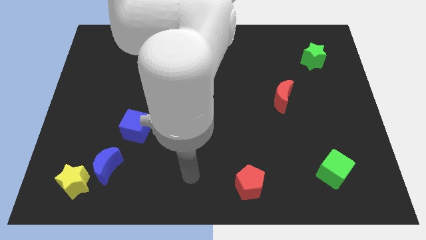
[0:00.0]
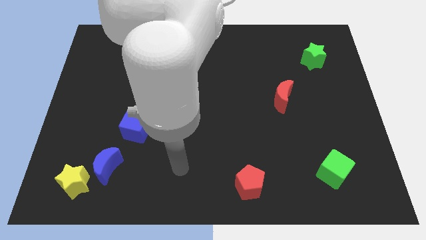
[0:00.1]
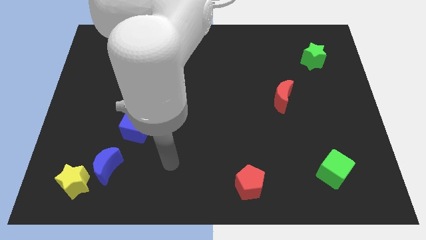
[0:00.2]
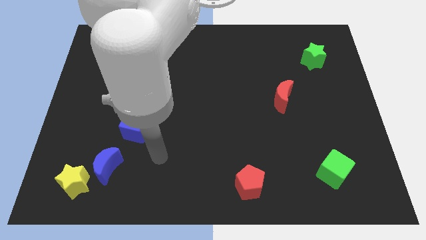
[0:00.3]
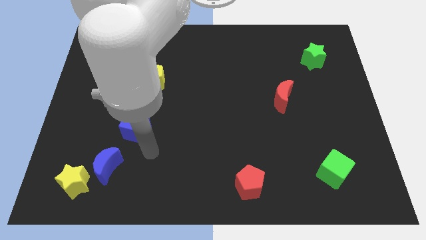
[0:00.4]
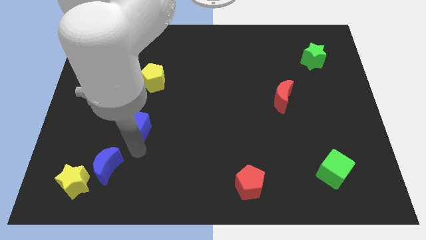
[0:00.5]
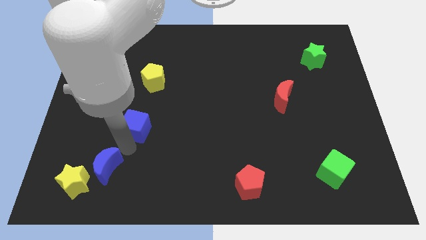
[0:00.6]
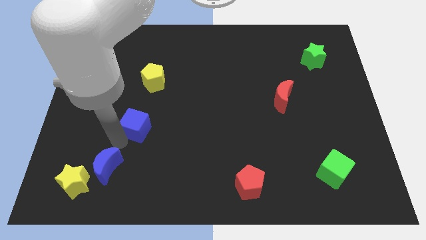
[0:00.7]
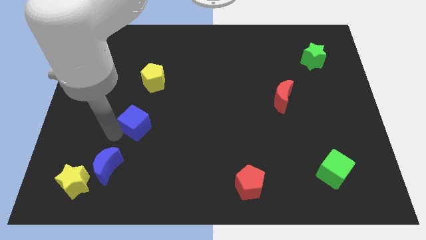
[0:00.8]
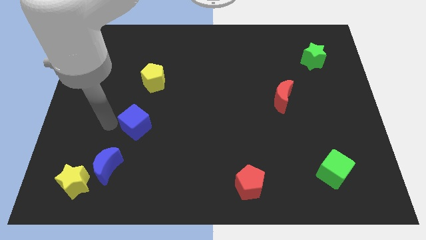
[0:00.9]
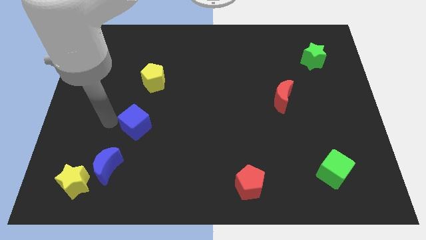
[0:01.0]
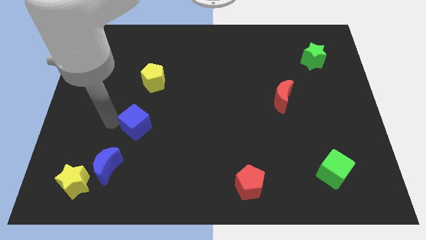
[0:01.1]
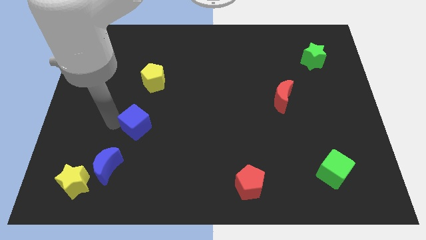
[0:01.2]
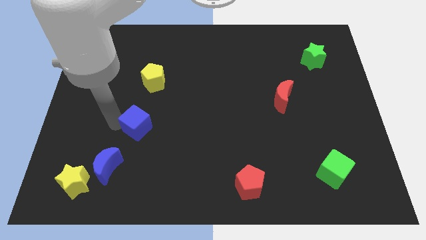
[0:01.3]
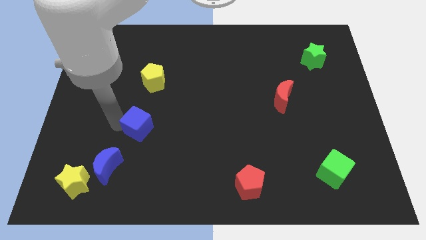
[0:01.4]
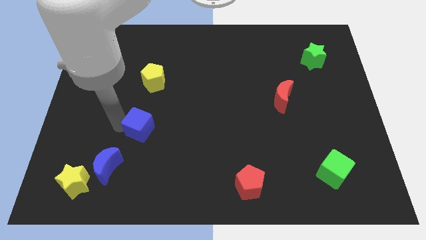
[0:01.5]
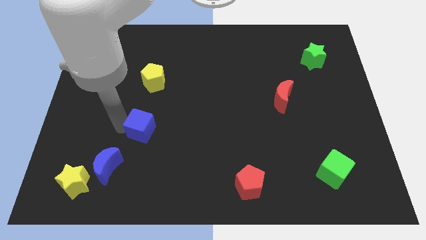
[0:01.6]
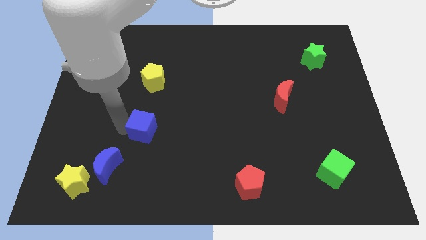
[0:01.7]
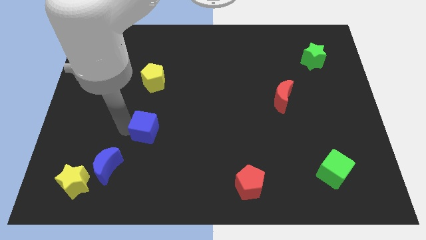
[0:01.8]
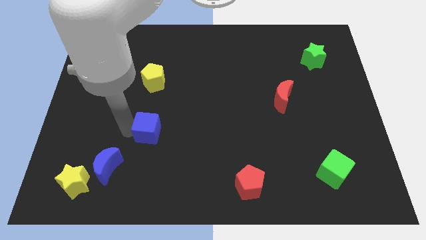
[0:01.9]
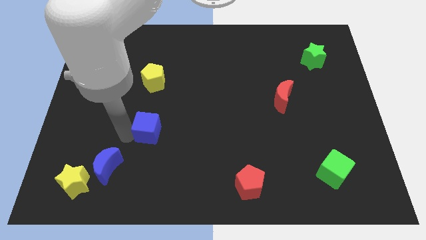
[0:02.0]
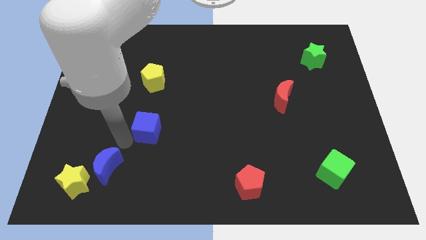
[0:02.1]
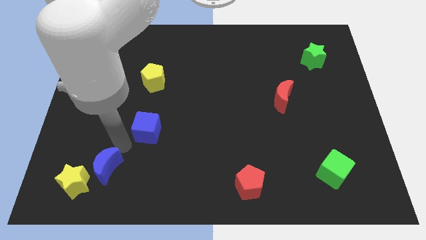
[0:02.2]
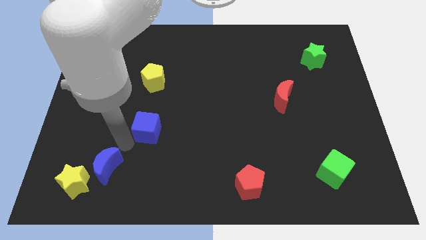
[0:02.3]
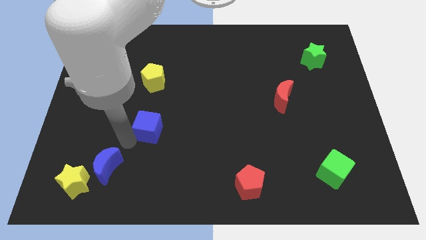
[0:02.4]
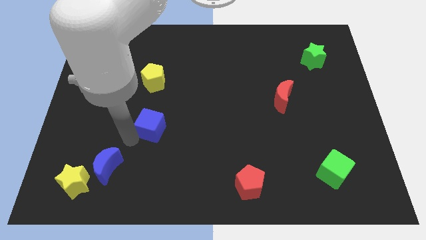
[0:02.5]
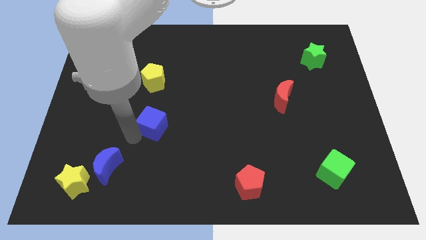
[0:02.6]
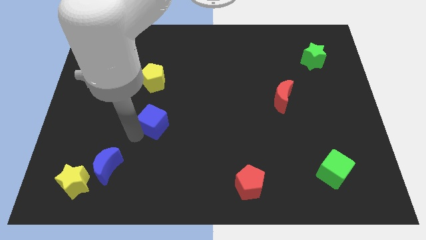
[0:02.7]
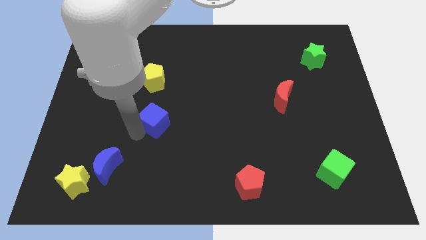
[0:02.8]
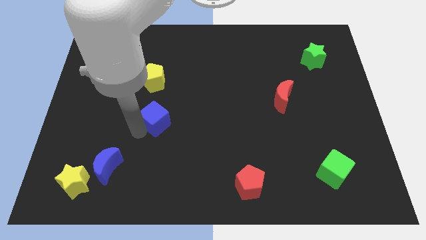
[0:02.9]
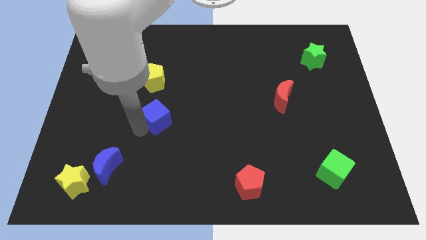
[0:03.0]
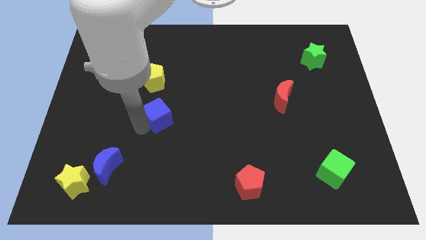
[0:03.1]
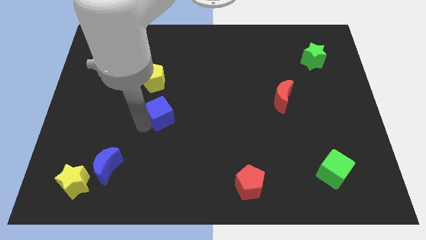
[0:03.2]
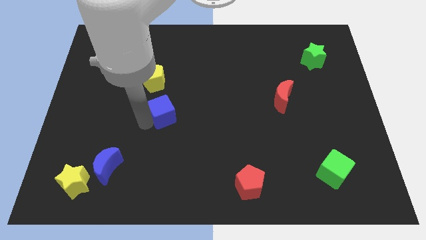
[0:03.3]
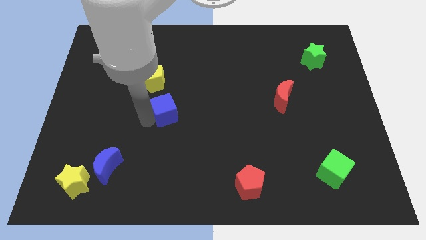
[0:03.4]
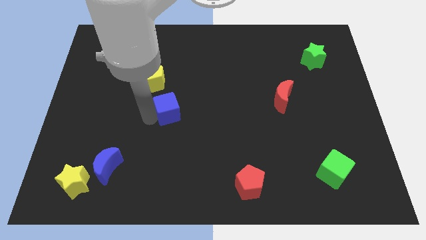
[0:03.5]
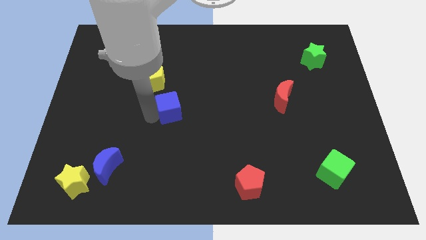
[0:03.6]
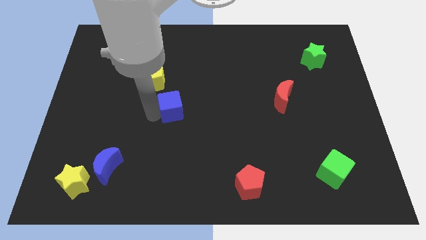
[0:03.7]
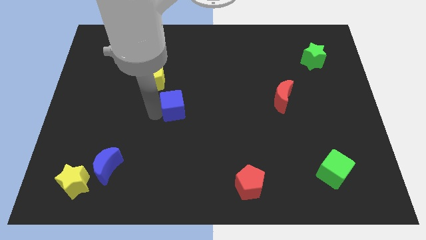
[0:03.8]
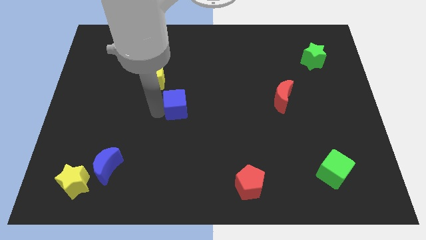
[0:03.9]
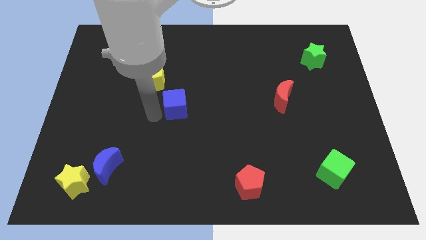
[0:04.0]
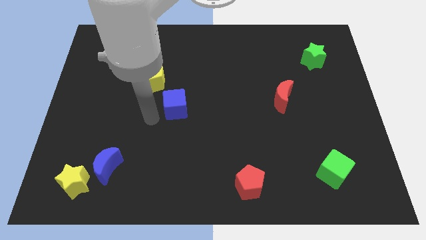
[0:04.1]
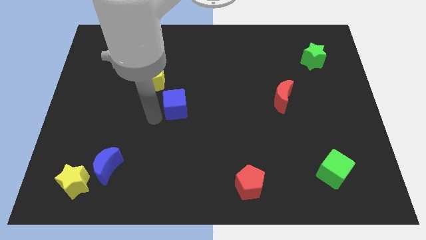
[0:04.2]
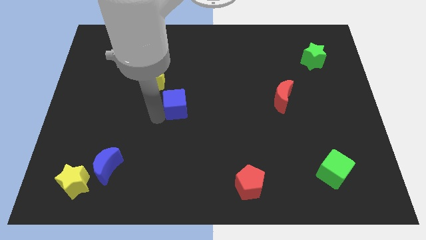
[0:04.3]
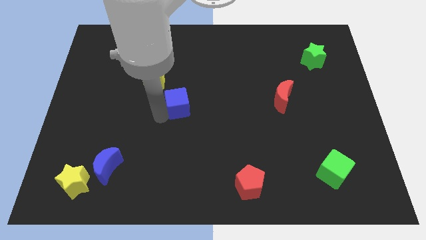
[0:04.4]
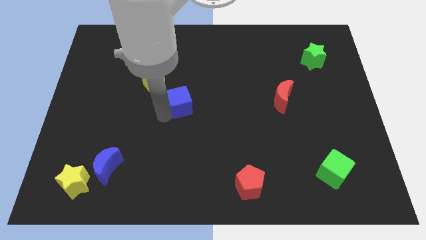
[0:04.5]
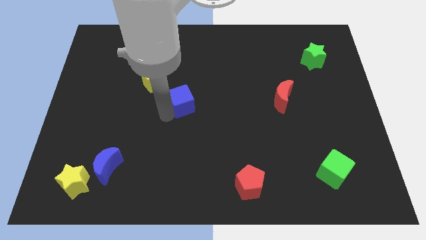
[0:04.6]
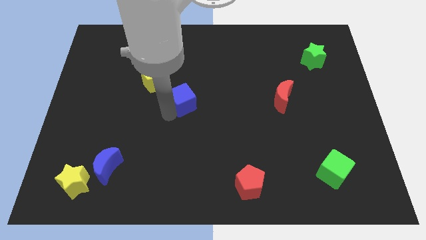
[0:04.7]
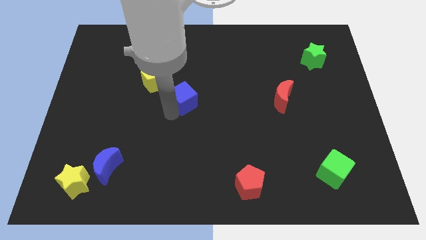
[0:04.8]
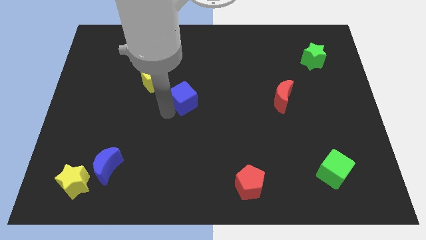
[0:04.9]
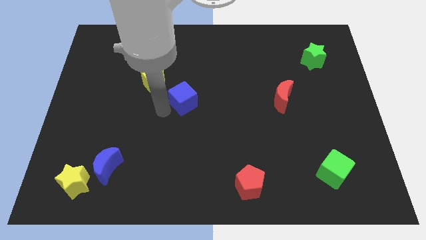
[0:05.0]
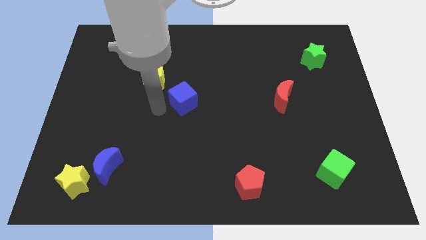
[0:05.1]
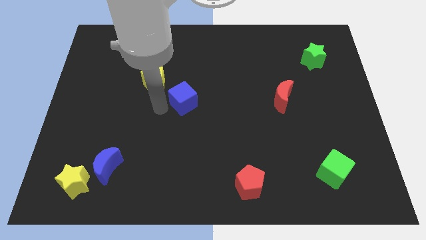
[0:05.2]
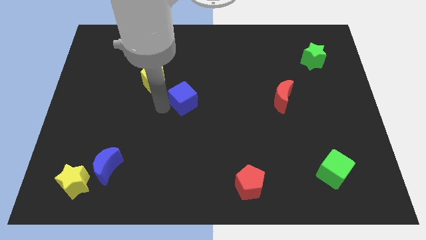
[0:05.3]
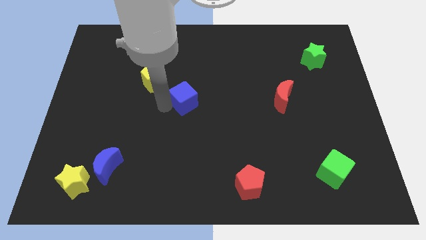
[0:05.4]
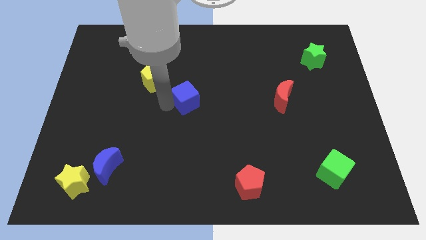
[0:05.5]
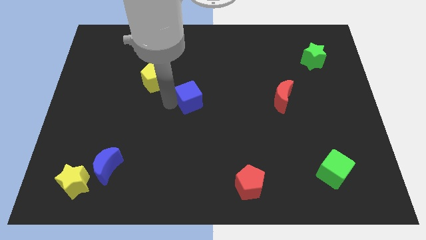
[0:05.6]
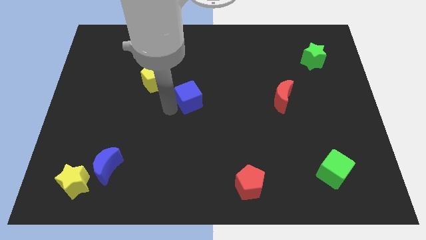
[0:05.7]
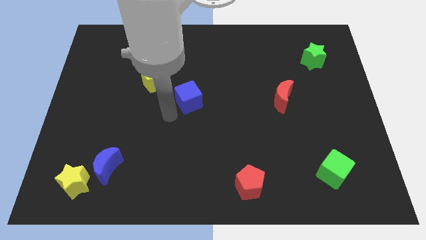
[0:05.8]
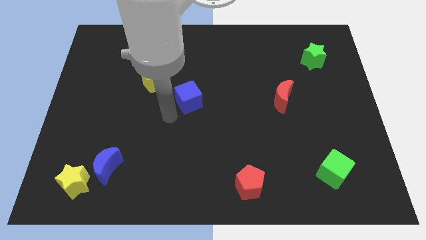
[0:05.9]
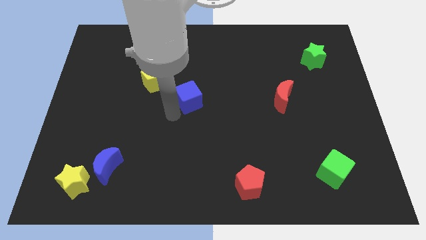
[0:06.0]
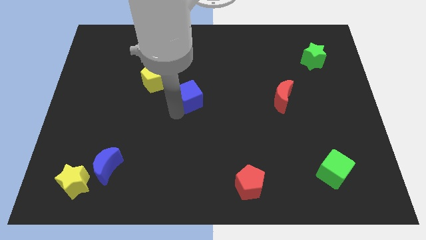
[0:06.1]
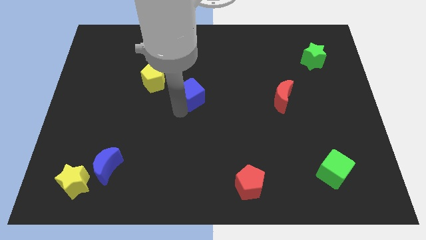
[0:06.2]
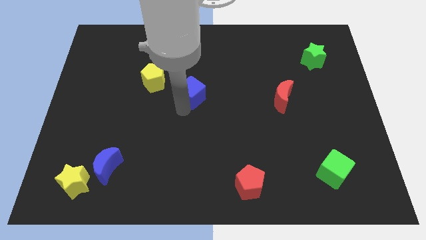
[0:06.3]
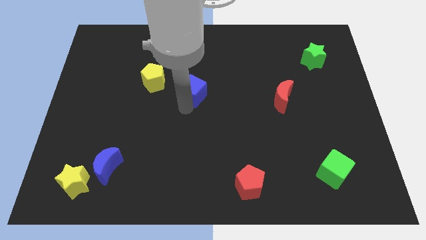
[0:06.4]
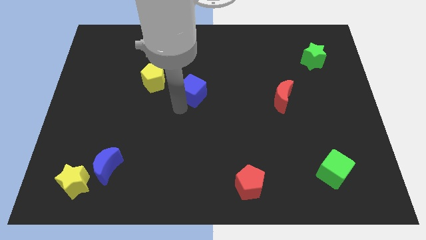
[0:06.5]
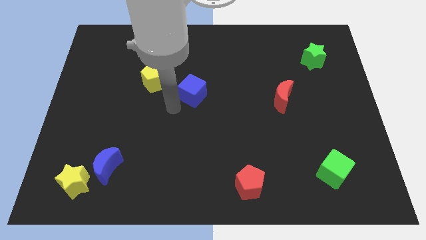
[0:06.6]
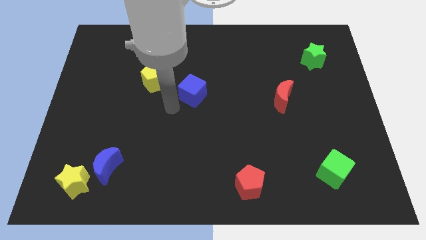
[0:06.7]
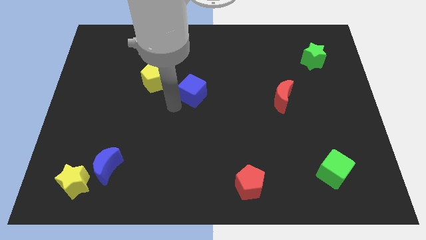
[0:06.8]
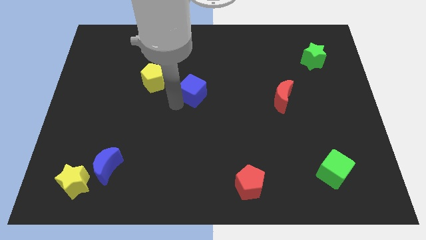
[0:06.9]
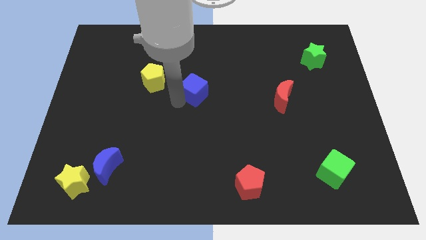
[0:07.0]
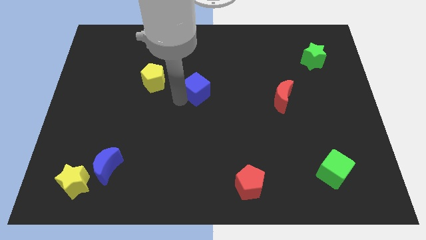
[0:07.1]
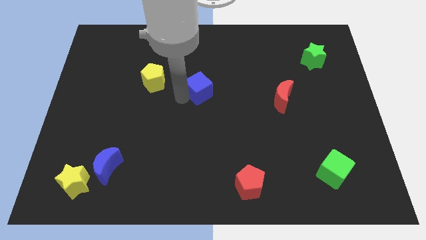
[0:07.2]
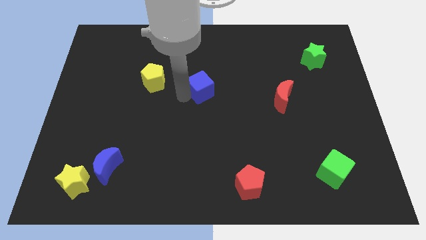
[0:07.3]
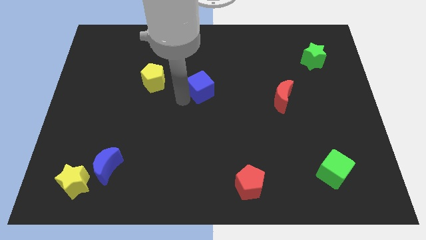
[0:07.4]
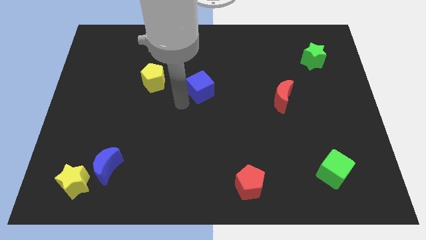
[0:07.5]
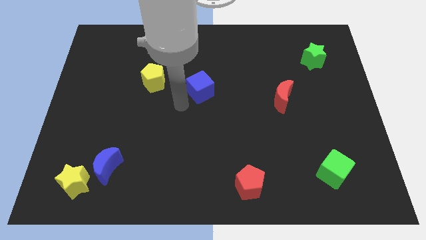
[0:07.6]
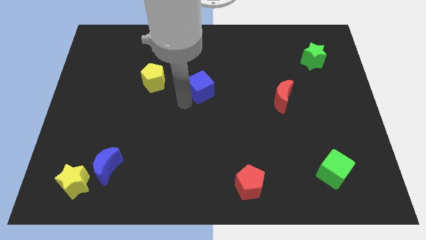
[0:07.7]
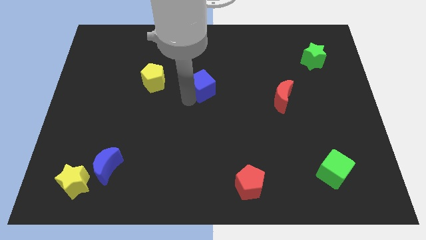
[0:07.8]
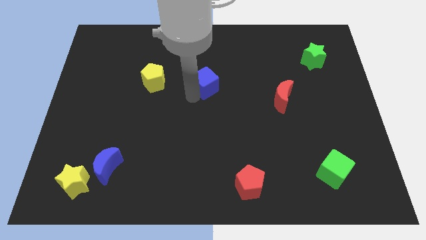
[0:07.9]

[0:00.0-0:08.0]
move the blue cube upwards and then right

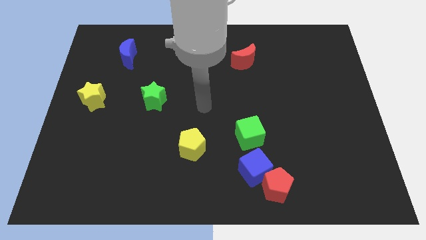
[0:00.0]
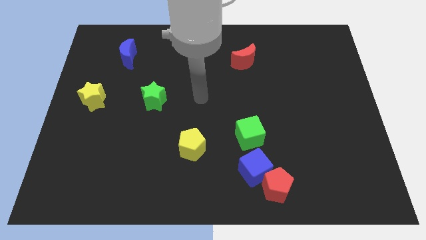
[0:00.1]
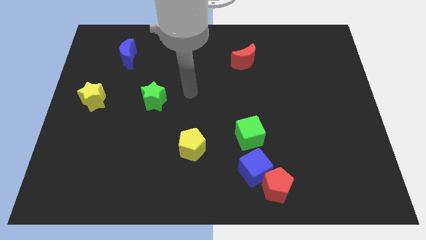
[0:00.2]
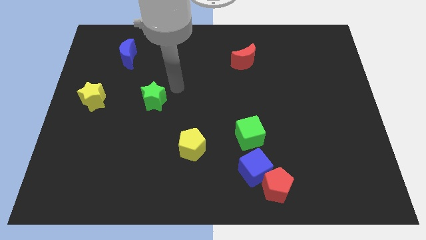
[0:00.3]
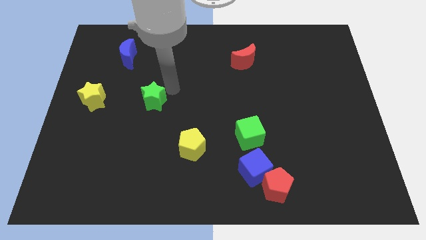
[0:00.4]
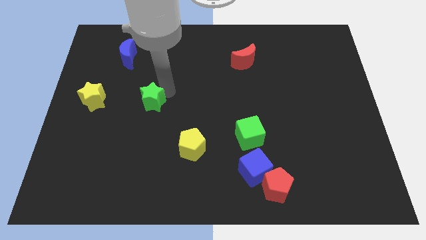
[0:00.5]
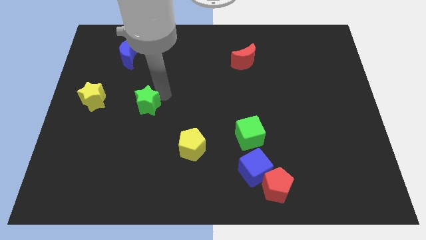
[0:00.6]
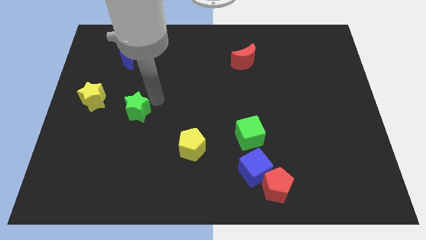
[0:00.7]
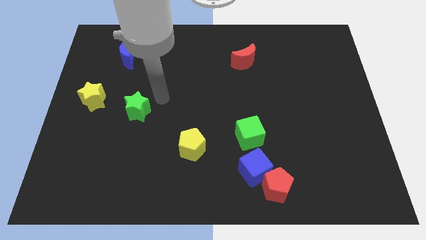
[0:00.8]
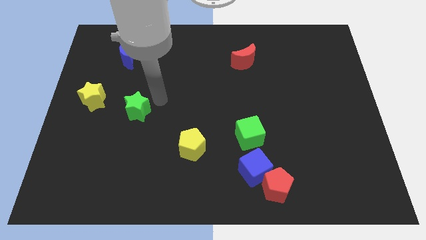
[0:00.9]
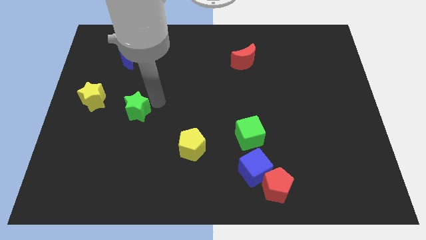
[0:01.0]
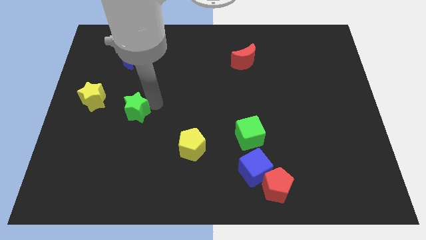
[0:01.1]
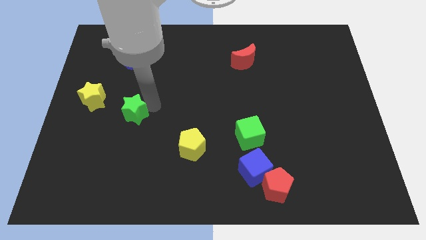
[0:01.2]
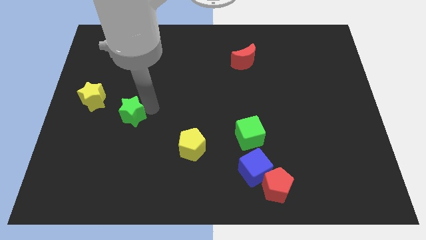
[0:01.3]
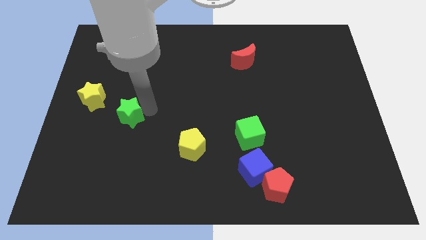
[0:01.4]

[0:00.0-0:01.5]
slightly push the green star downwards and then to the left
